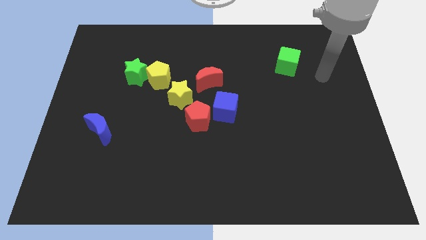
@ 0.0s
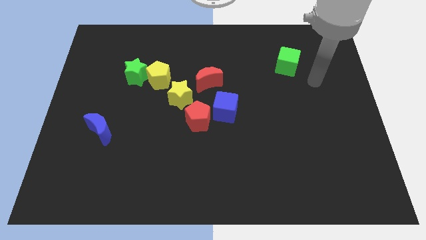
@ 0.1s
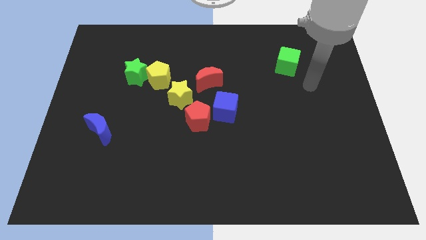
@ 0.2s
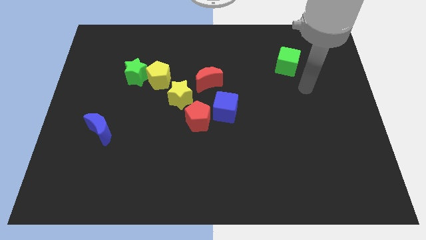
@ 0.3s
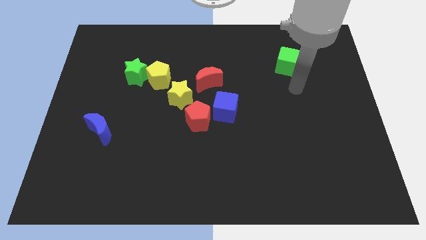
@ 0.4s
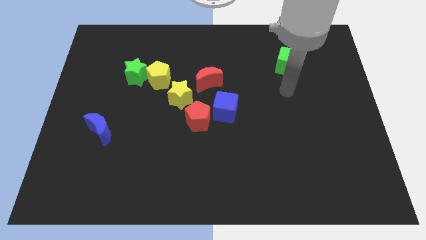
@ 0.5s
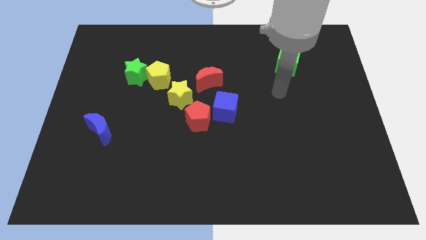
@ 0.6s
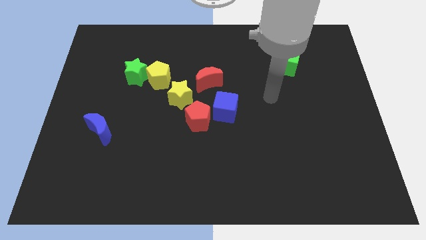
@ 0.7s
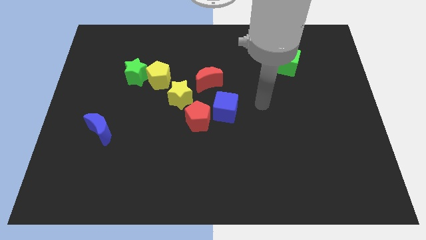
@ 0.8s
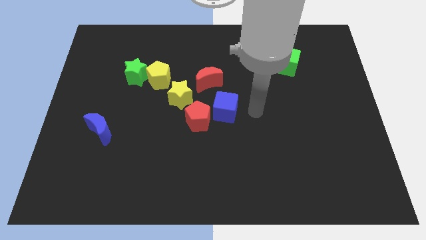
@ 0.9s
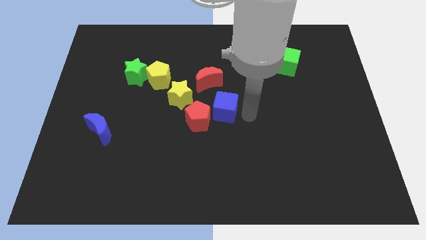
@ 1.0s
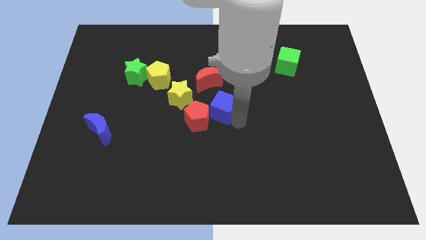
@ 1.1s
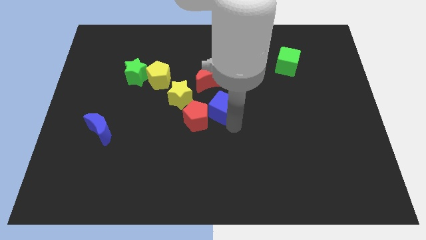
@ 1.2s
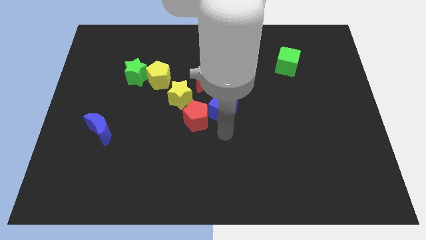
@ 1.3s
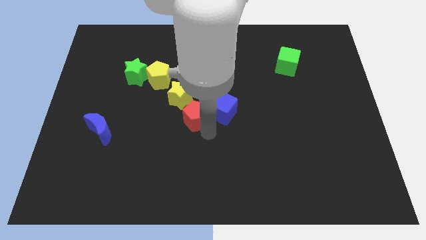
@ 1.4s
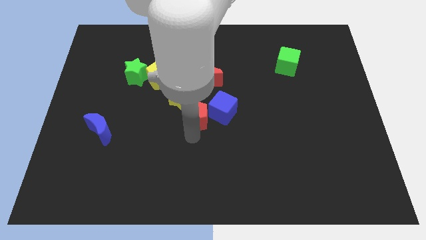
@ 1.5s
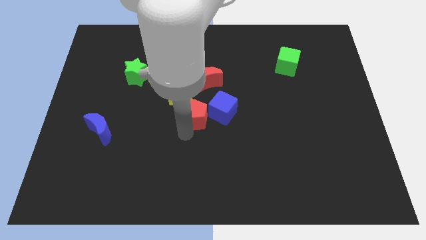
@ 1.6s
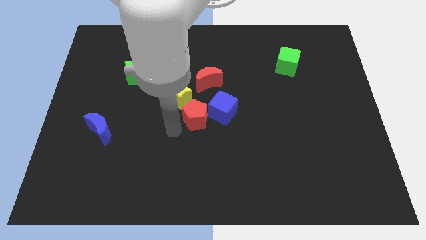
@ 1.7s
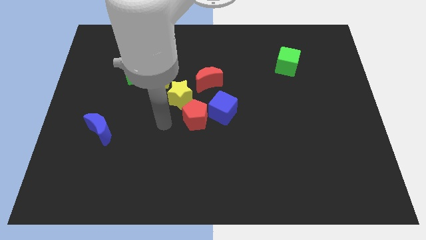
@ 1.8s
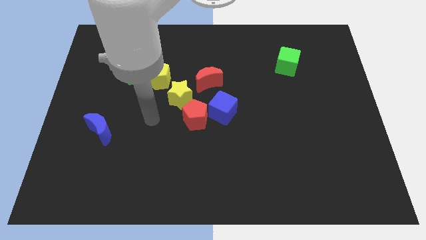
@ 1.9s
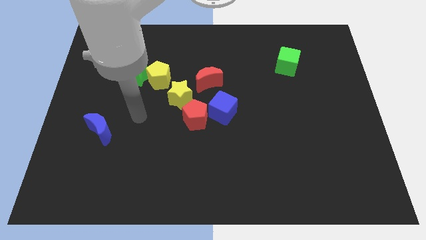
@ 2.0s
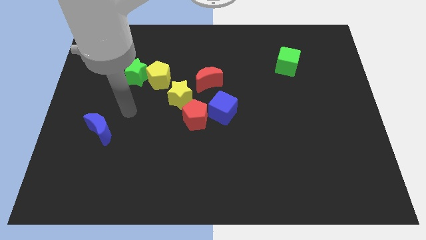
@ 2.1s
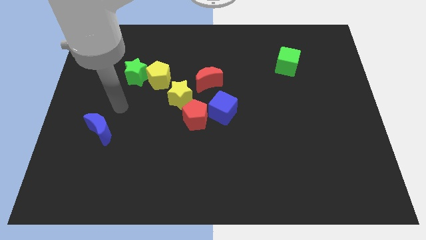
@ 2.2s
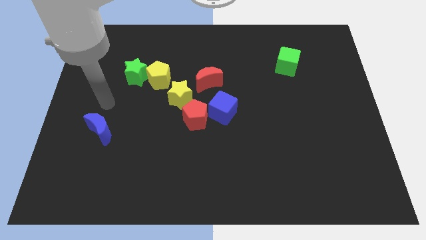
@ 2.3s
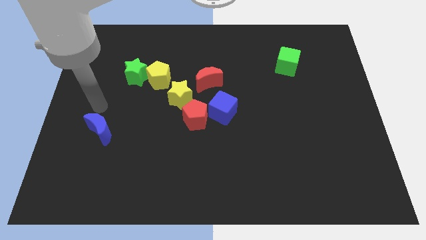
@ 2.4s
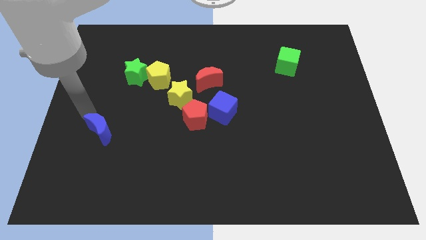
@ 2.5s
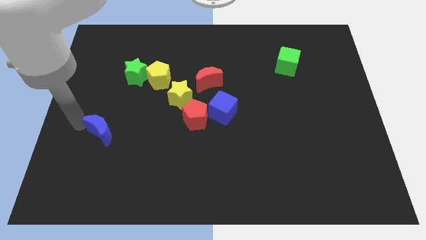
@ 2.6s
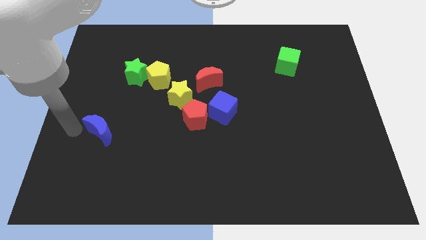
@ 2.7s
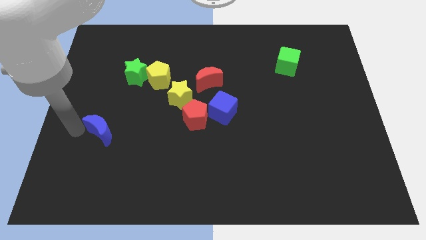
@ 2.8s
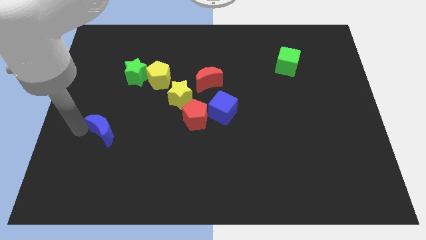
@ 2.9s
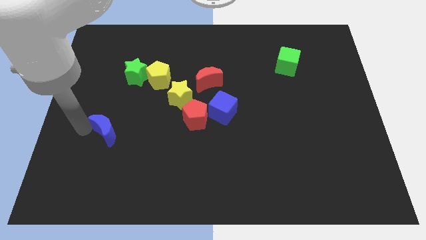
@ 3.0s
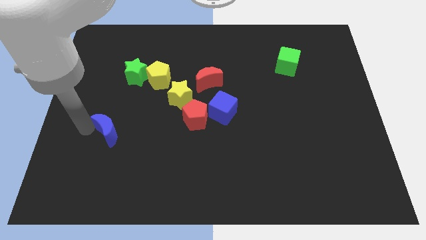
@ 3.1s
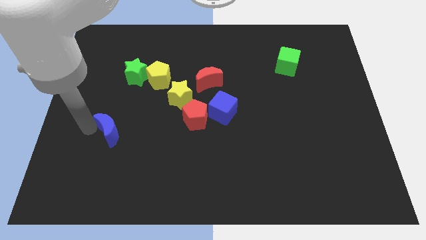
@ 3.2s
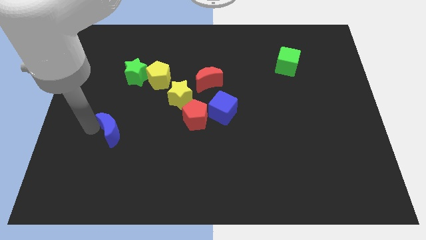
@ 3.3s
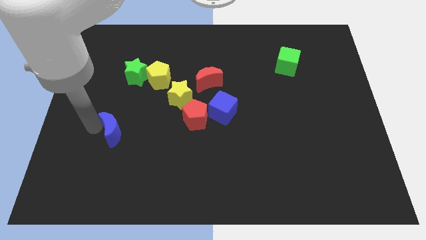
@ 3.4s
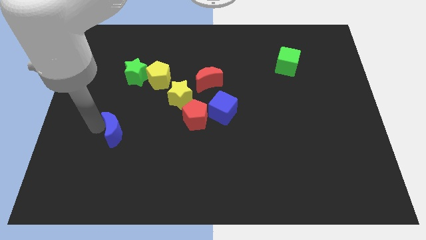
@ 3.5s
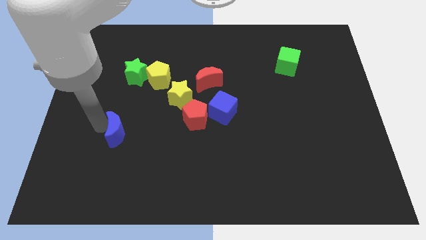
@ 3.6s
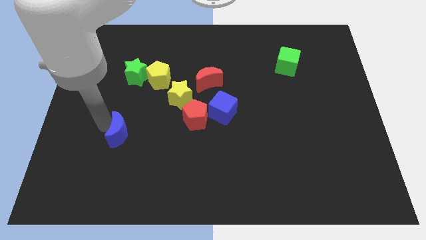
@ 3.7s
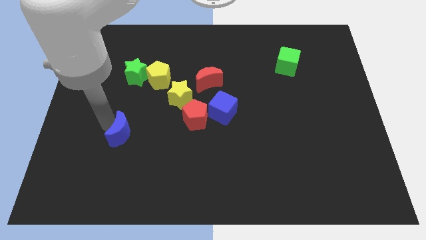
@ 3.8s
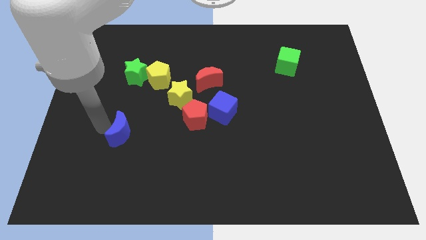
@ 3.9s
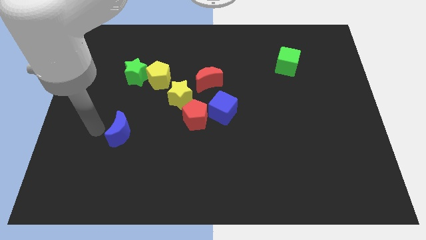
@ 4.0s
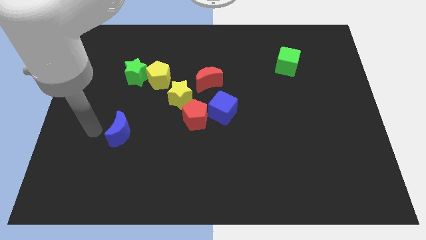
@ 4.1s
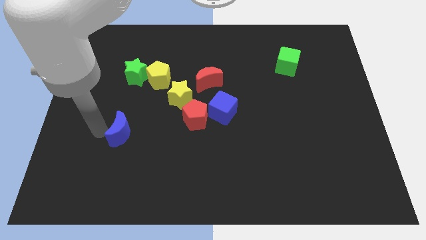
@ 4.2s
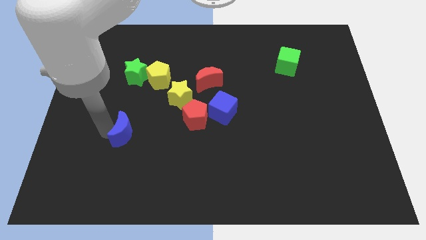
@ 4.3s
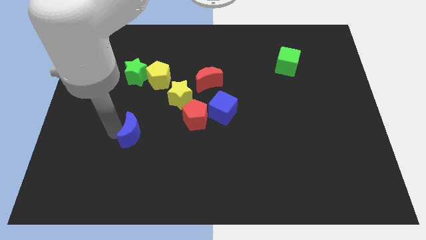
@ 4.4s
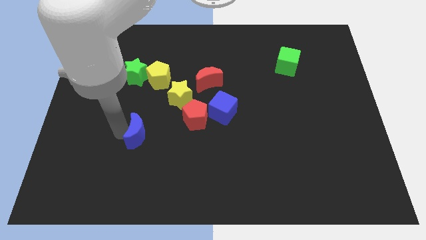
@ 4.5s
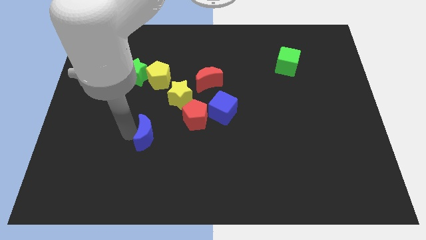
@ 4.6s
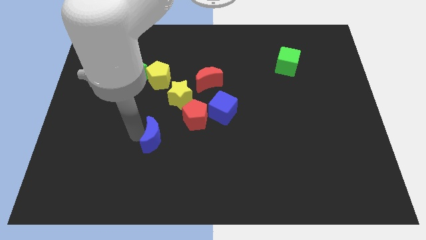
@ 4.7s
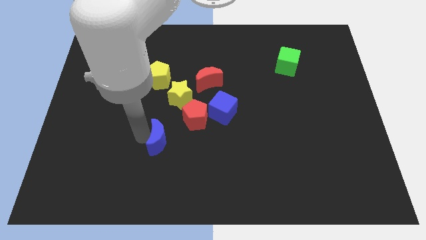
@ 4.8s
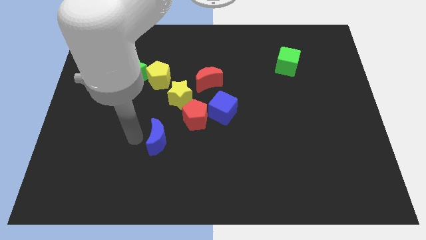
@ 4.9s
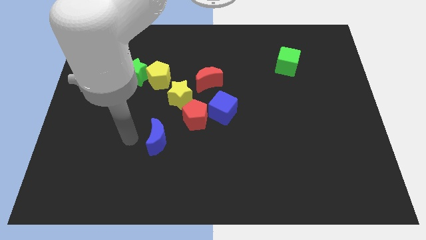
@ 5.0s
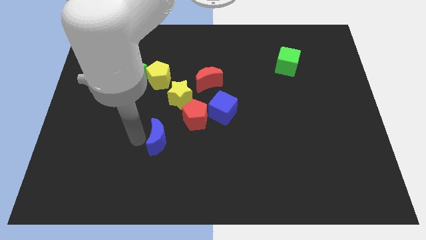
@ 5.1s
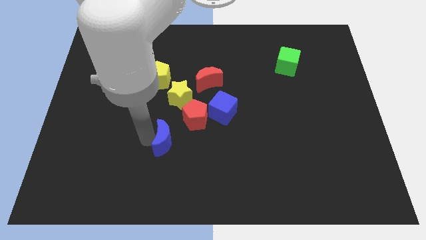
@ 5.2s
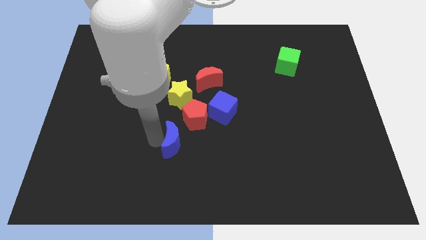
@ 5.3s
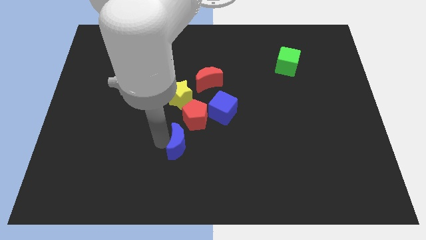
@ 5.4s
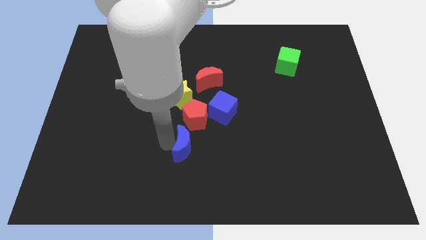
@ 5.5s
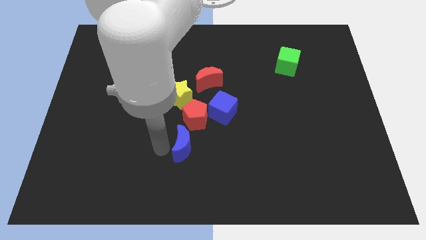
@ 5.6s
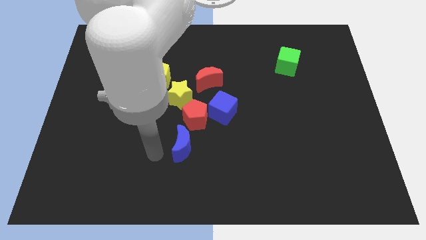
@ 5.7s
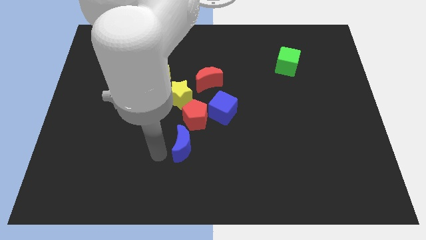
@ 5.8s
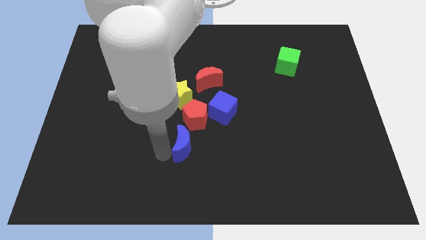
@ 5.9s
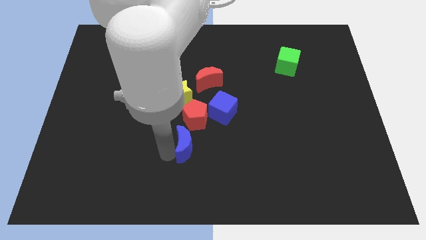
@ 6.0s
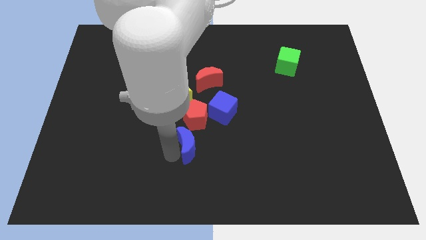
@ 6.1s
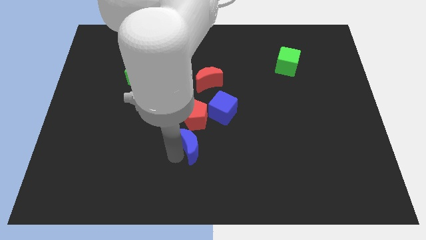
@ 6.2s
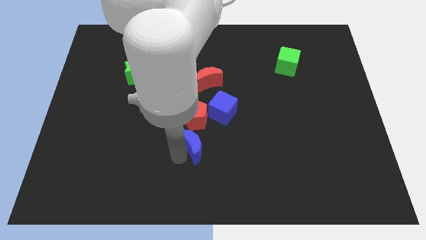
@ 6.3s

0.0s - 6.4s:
move the blue moon to the right

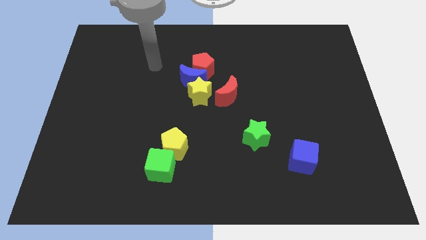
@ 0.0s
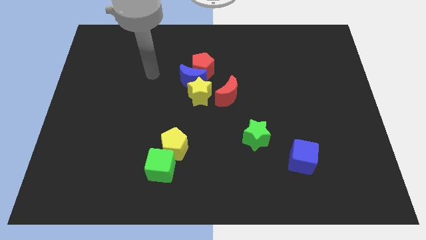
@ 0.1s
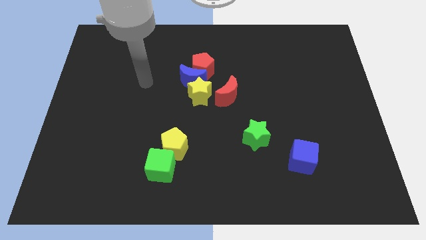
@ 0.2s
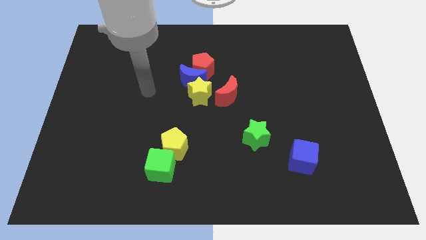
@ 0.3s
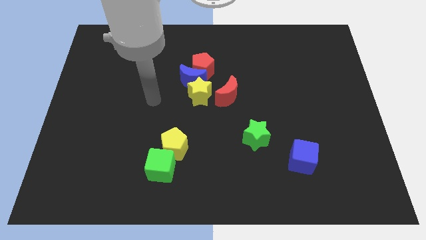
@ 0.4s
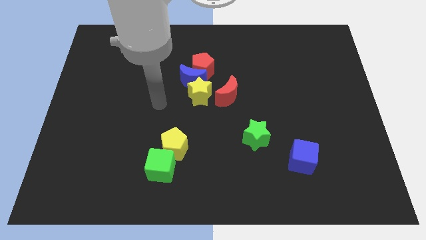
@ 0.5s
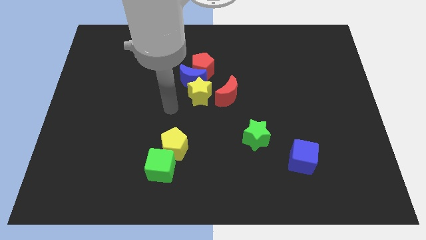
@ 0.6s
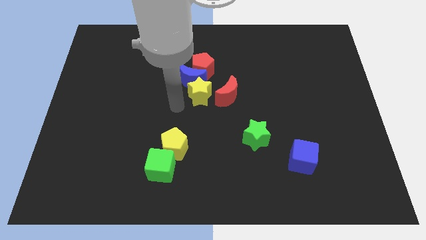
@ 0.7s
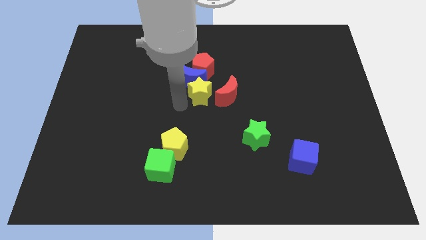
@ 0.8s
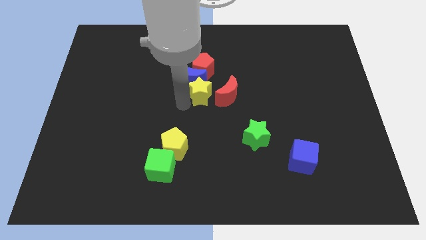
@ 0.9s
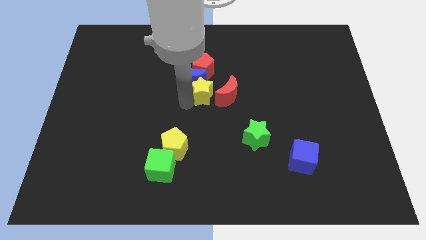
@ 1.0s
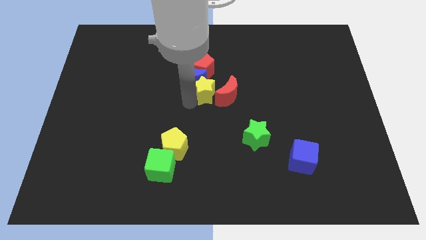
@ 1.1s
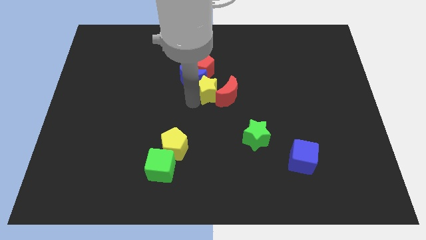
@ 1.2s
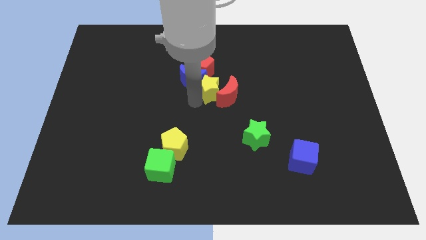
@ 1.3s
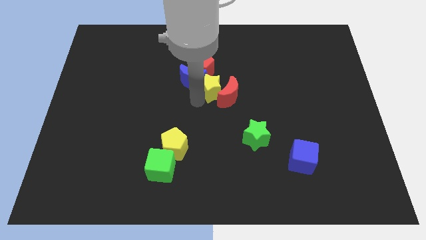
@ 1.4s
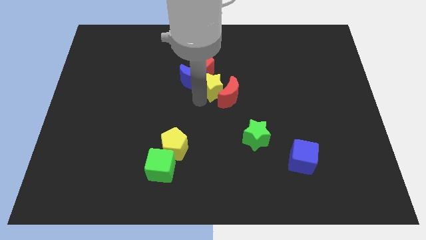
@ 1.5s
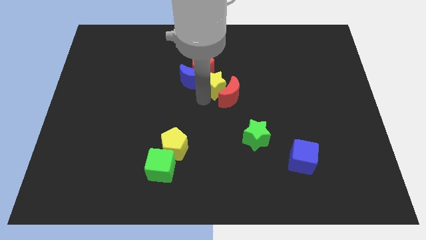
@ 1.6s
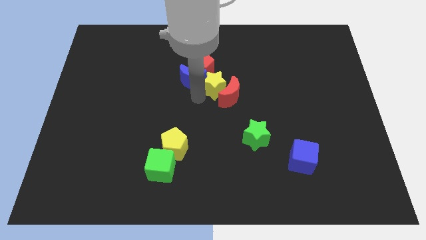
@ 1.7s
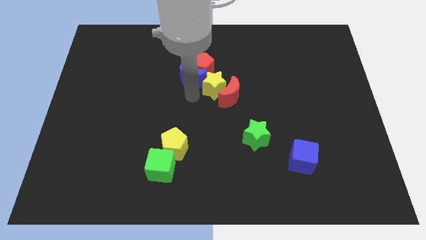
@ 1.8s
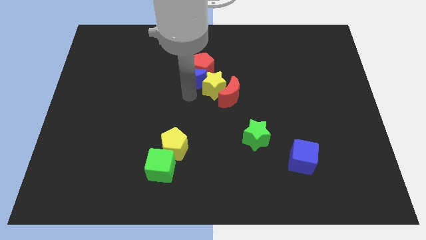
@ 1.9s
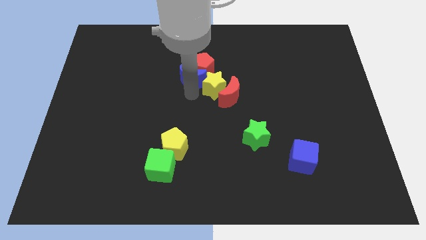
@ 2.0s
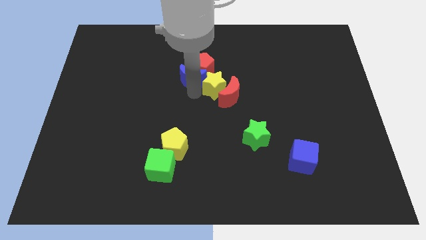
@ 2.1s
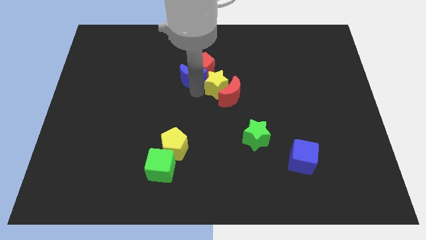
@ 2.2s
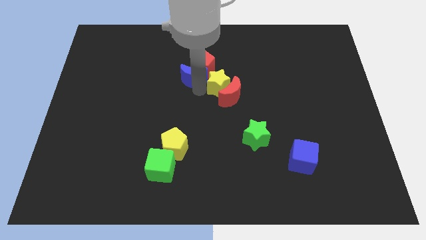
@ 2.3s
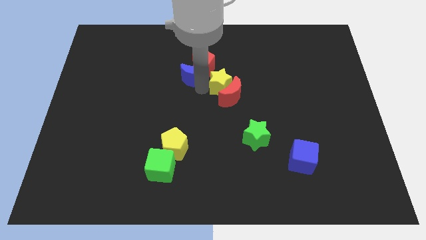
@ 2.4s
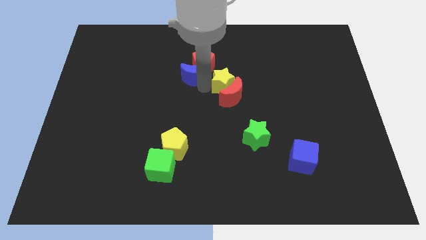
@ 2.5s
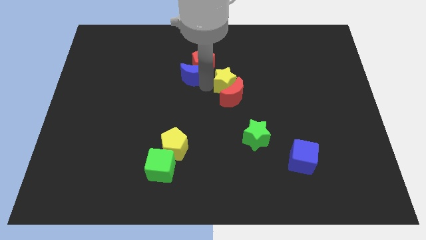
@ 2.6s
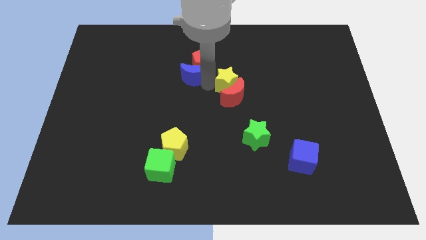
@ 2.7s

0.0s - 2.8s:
push the yellow star diagonally up and right somewhat
